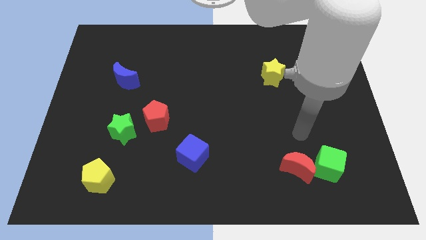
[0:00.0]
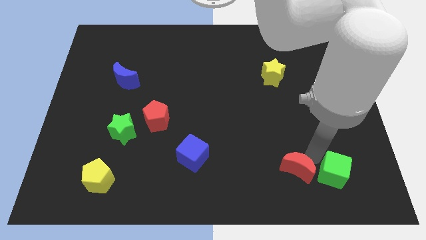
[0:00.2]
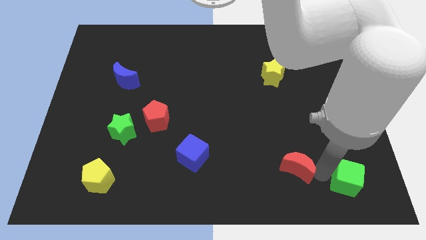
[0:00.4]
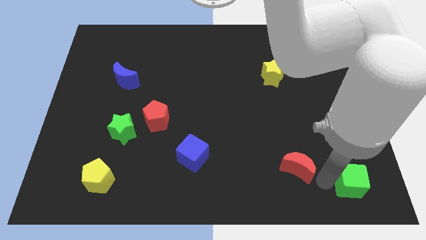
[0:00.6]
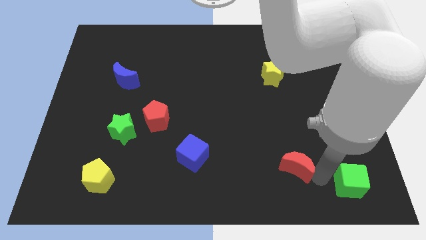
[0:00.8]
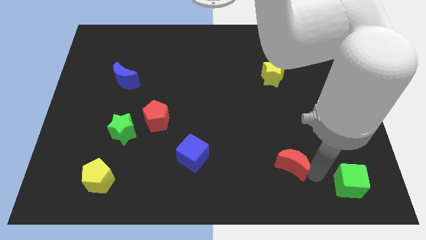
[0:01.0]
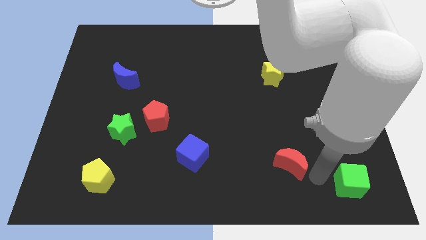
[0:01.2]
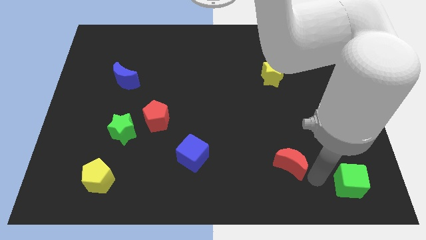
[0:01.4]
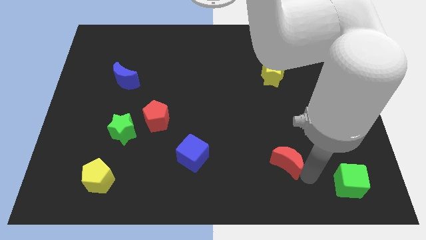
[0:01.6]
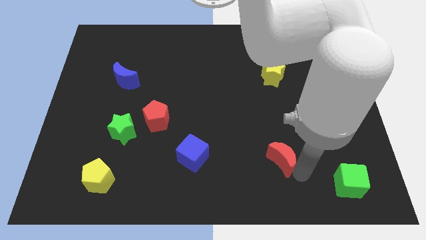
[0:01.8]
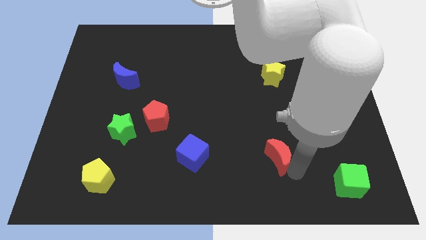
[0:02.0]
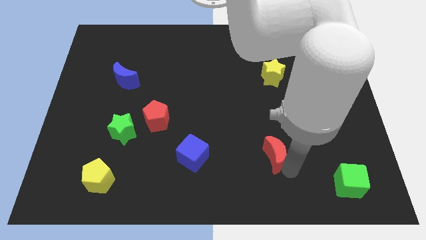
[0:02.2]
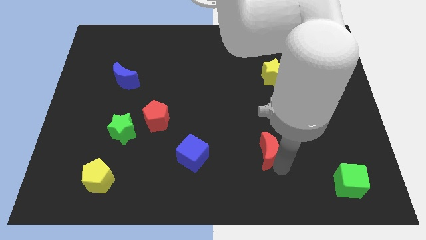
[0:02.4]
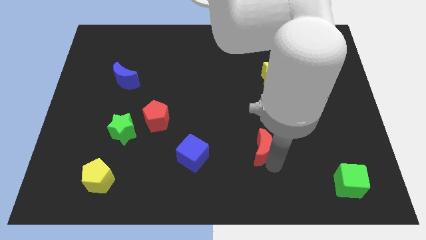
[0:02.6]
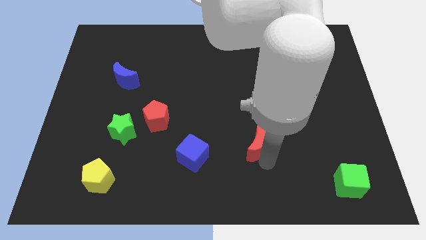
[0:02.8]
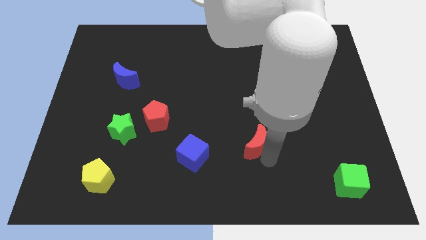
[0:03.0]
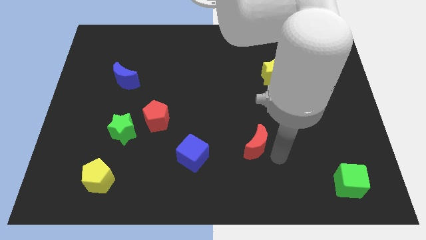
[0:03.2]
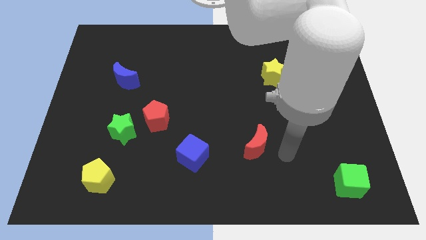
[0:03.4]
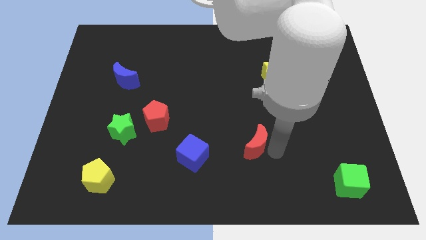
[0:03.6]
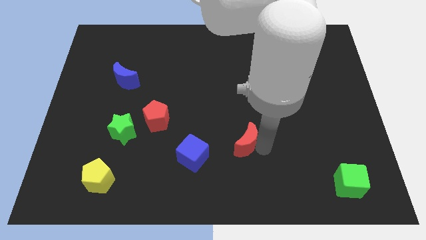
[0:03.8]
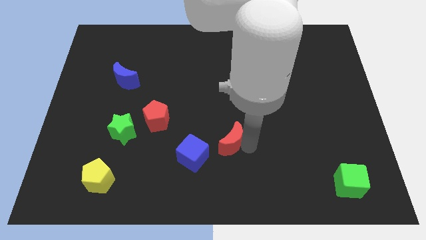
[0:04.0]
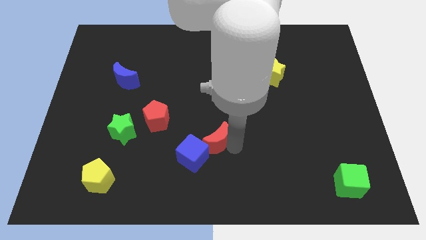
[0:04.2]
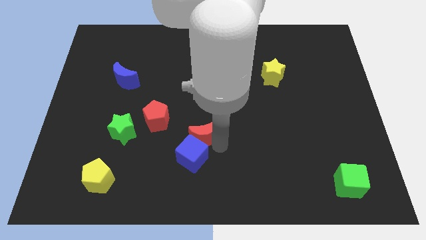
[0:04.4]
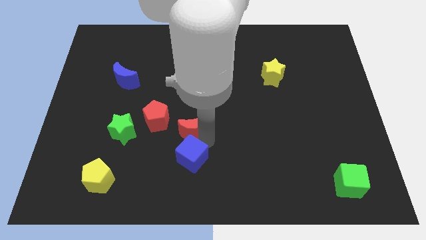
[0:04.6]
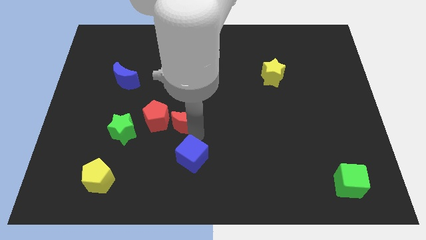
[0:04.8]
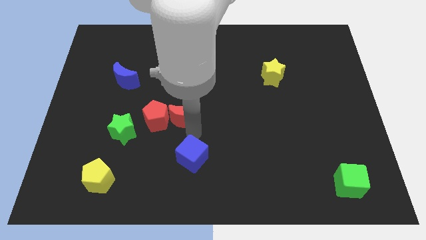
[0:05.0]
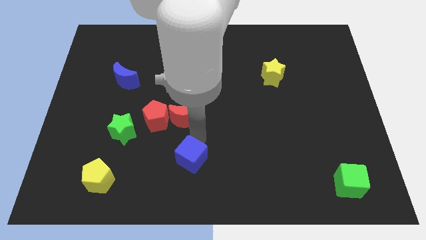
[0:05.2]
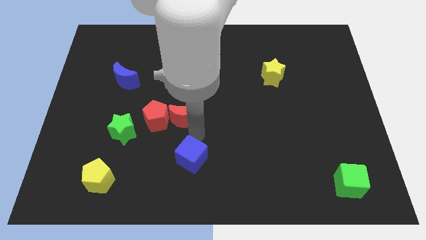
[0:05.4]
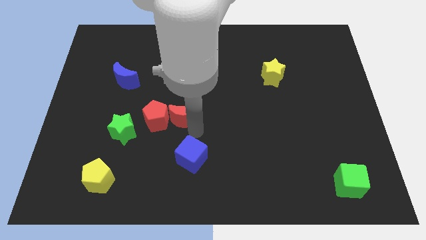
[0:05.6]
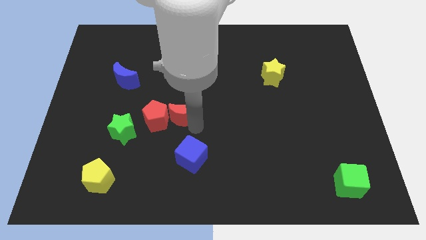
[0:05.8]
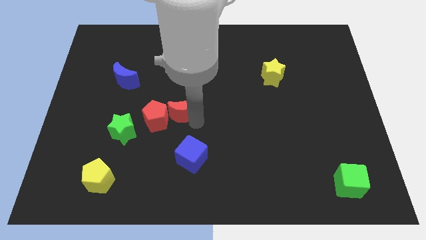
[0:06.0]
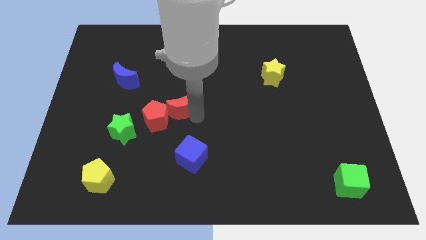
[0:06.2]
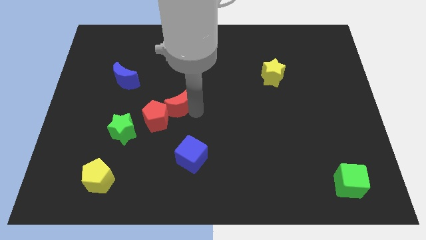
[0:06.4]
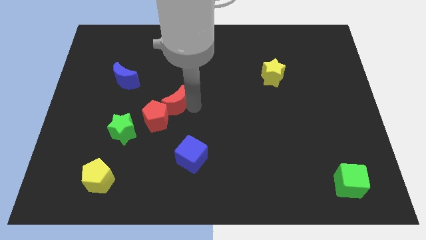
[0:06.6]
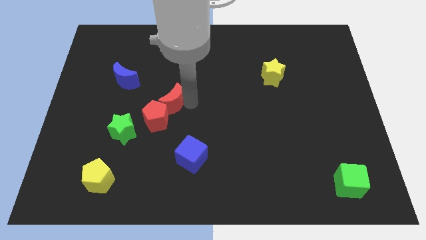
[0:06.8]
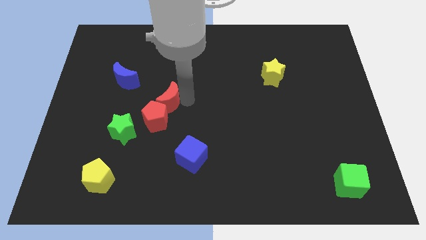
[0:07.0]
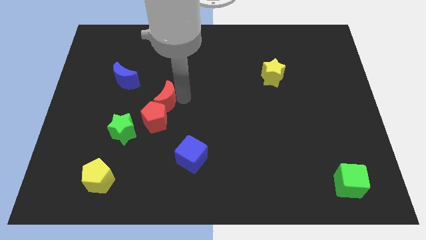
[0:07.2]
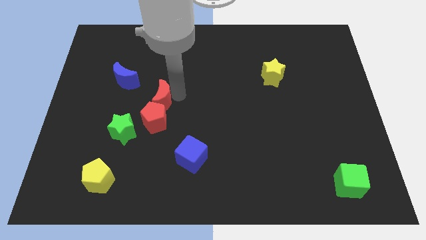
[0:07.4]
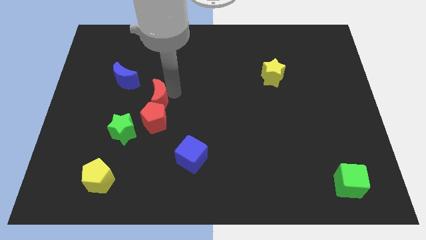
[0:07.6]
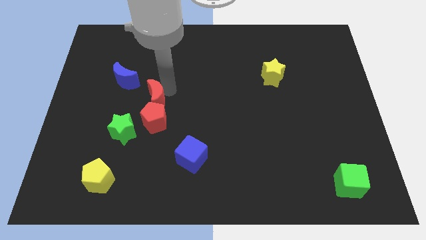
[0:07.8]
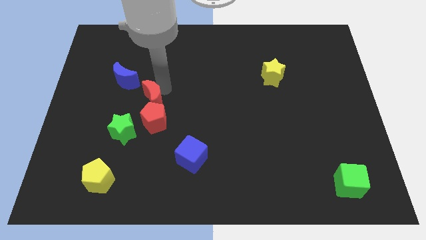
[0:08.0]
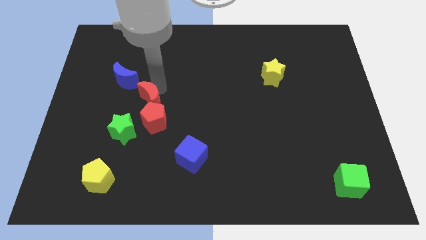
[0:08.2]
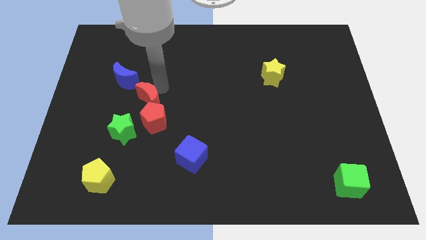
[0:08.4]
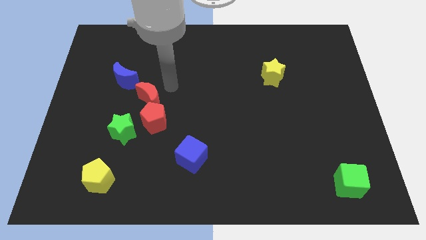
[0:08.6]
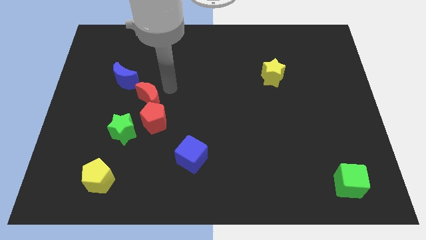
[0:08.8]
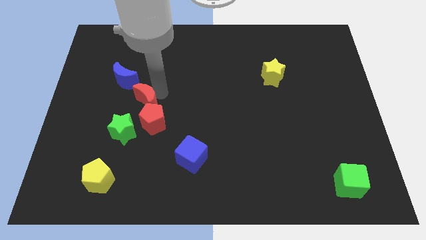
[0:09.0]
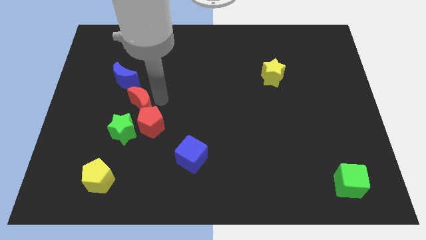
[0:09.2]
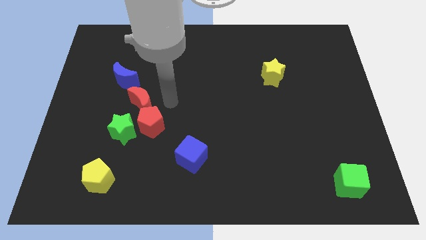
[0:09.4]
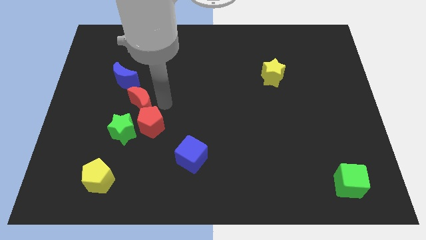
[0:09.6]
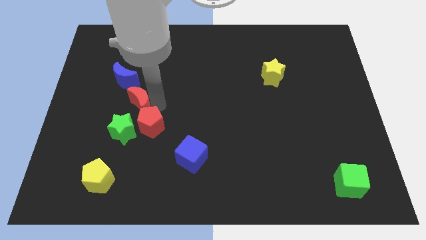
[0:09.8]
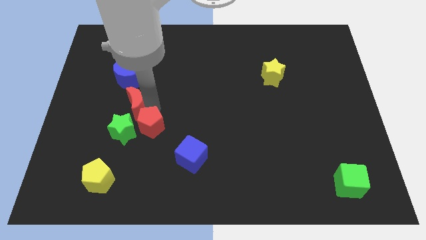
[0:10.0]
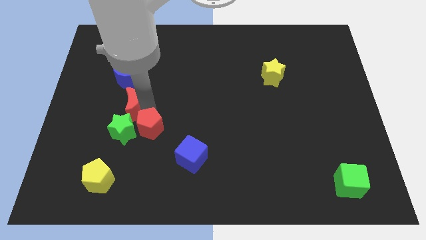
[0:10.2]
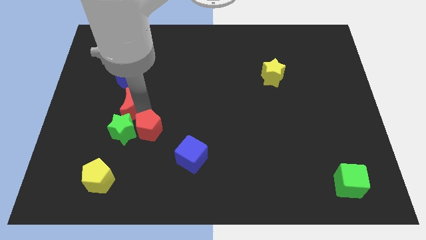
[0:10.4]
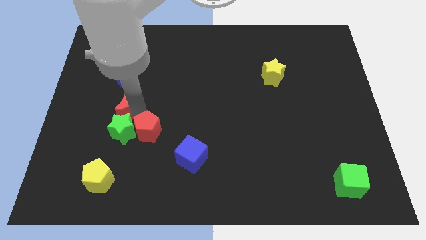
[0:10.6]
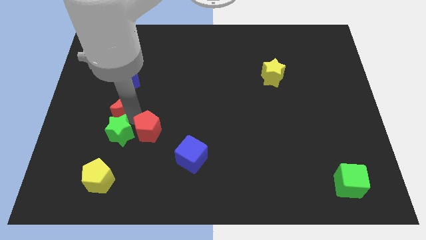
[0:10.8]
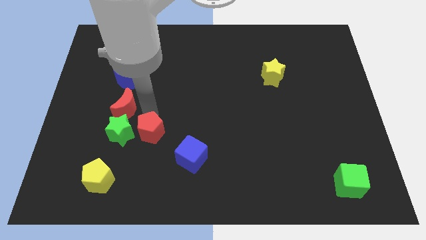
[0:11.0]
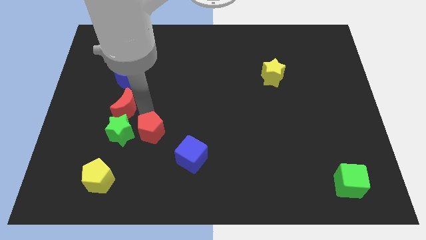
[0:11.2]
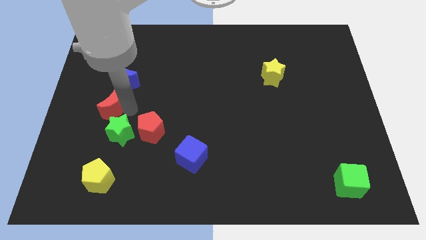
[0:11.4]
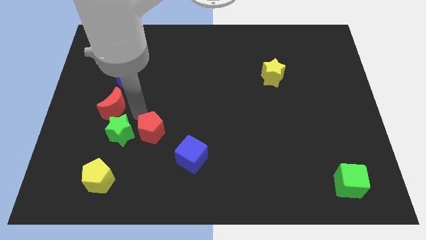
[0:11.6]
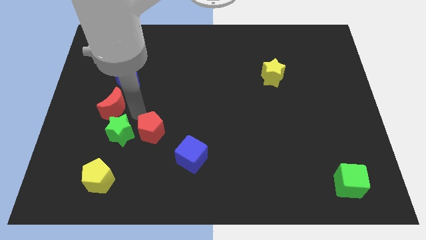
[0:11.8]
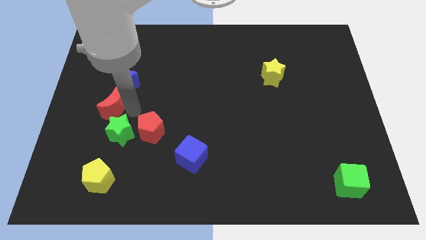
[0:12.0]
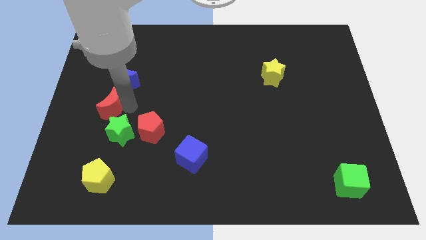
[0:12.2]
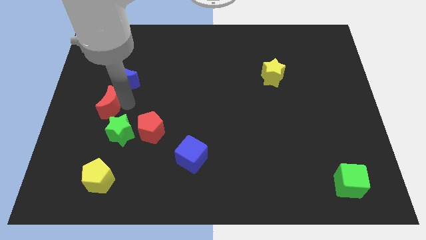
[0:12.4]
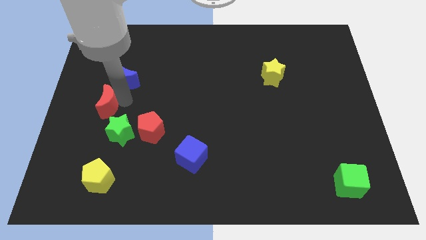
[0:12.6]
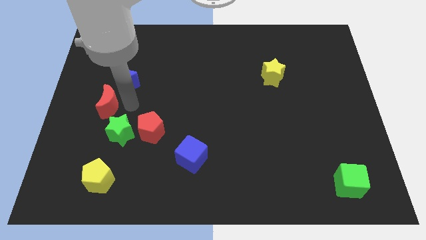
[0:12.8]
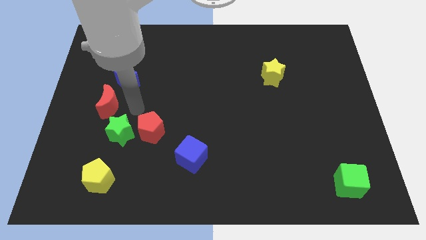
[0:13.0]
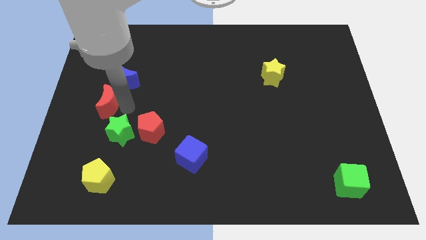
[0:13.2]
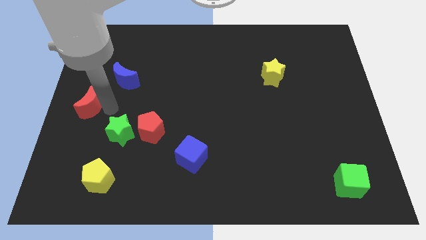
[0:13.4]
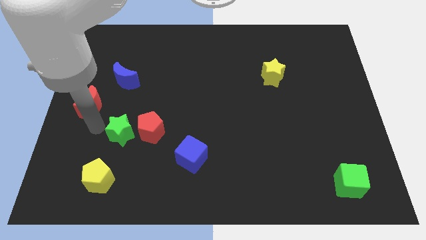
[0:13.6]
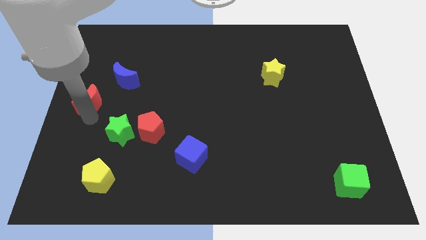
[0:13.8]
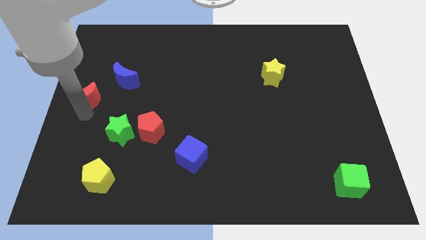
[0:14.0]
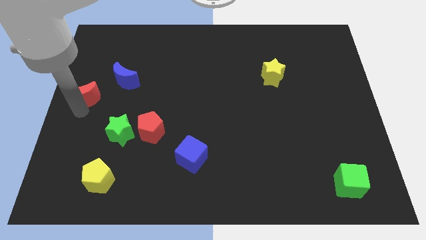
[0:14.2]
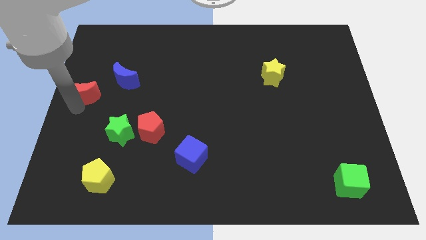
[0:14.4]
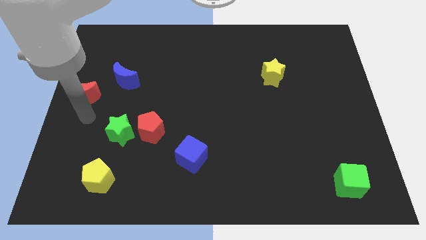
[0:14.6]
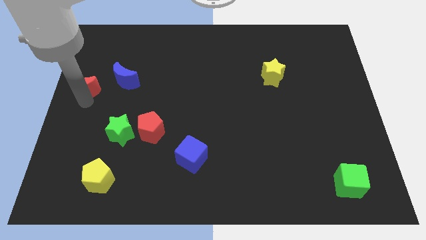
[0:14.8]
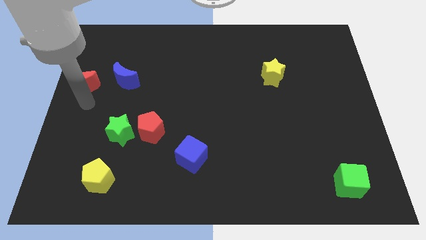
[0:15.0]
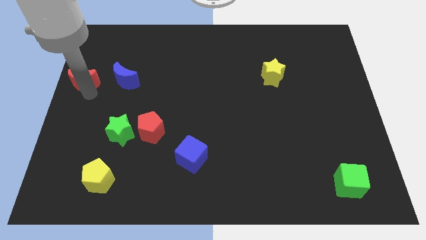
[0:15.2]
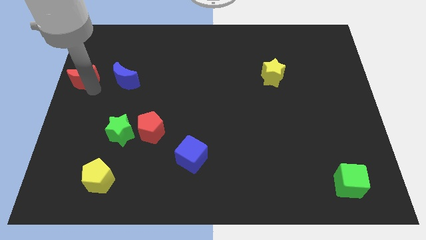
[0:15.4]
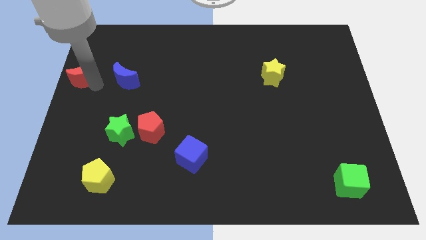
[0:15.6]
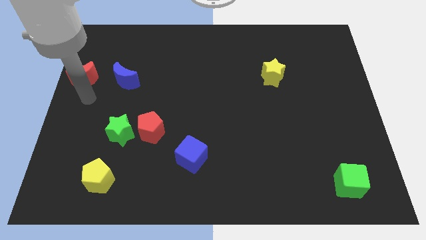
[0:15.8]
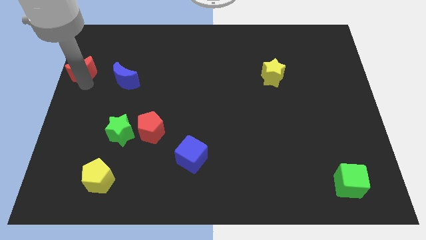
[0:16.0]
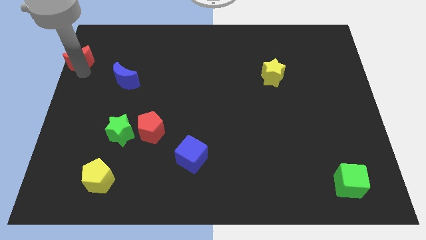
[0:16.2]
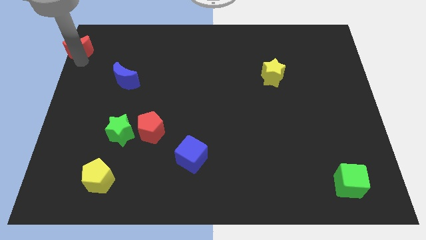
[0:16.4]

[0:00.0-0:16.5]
put the red moon to the top left of the board
